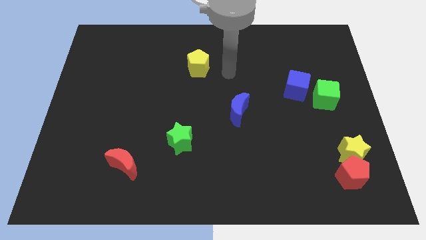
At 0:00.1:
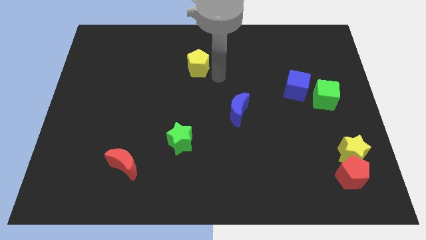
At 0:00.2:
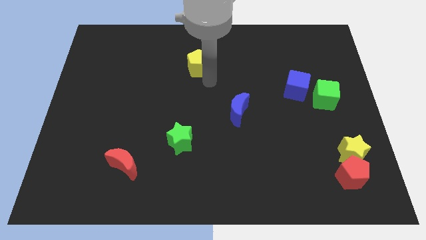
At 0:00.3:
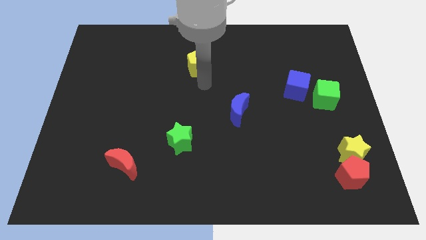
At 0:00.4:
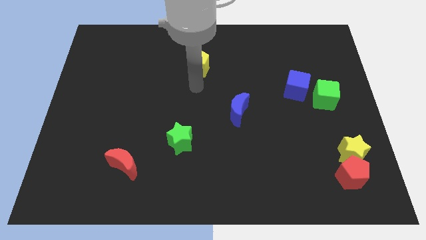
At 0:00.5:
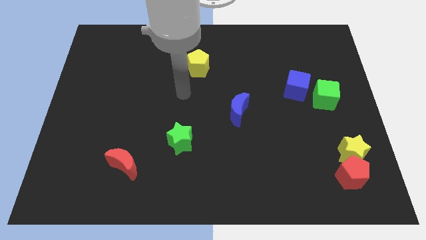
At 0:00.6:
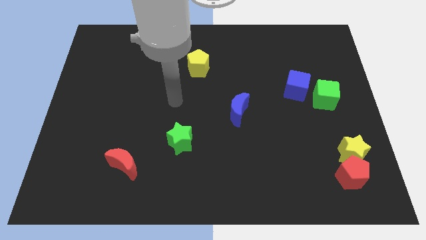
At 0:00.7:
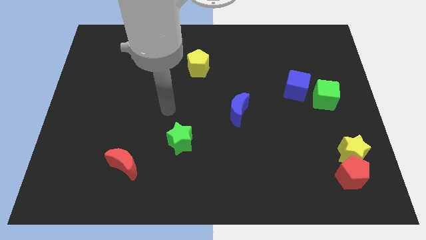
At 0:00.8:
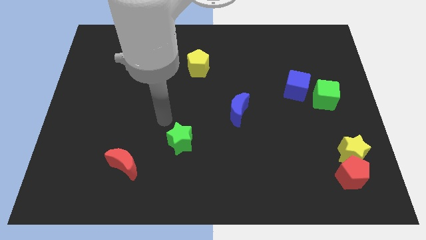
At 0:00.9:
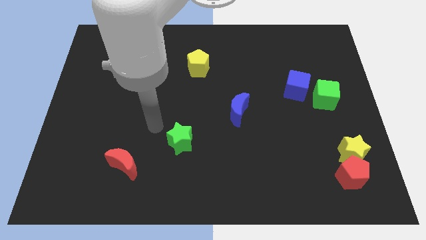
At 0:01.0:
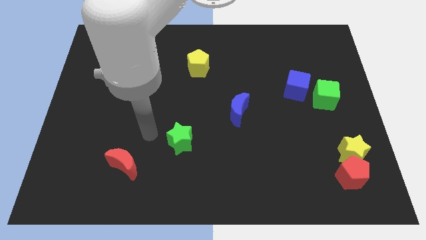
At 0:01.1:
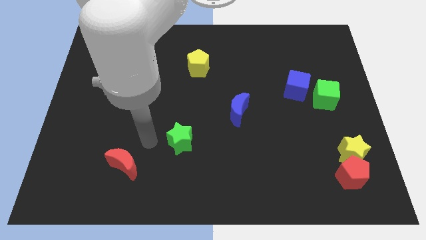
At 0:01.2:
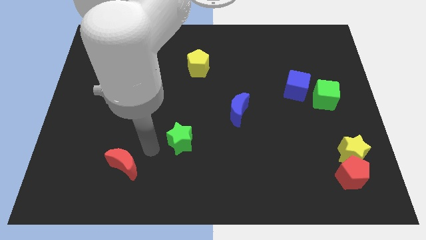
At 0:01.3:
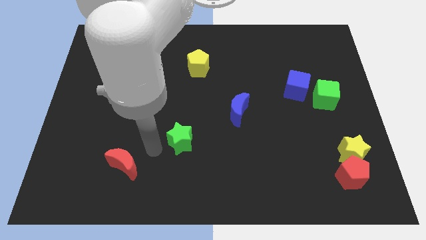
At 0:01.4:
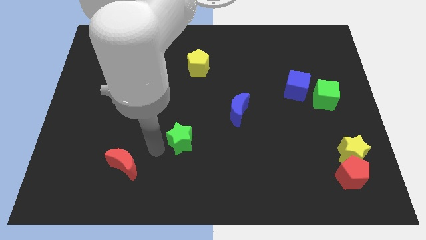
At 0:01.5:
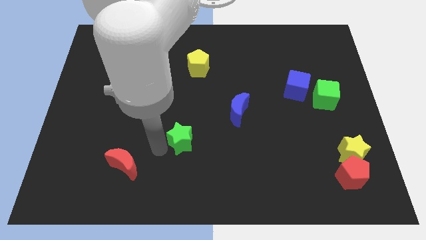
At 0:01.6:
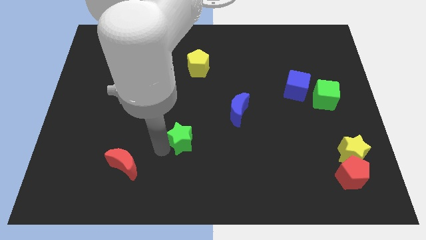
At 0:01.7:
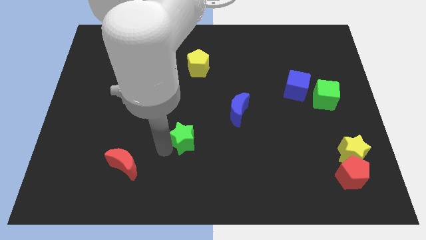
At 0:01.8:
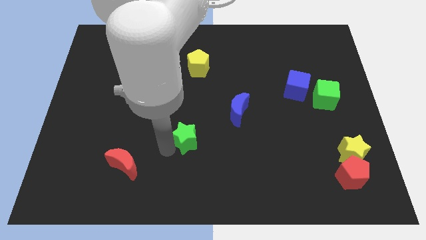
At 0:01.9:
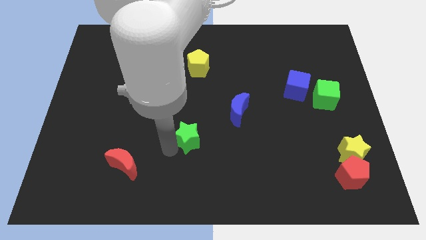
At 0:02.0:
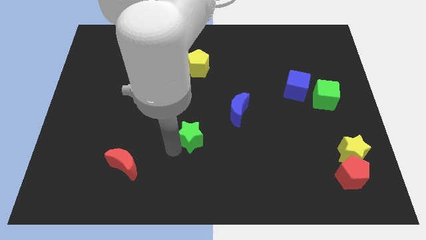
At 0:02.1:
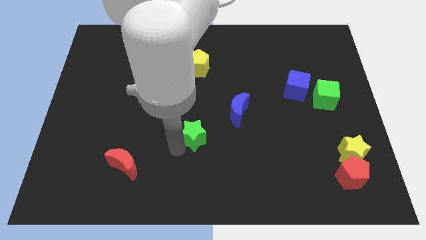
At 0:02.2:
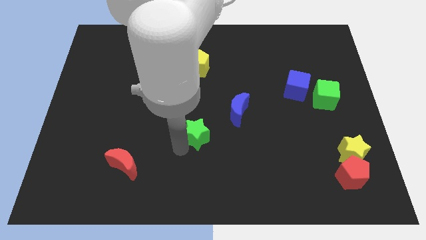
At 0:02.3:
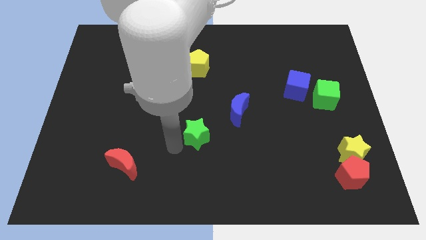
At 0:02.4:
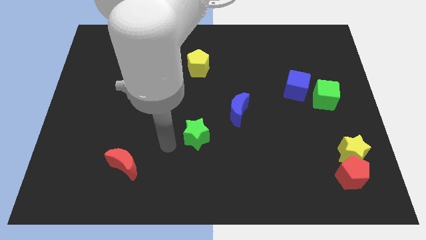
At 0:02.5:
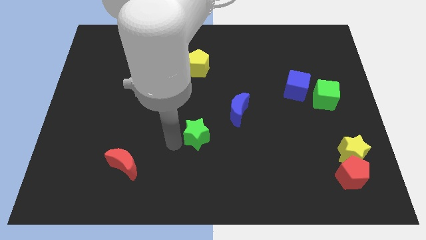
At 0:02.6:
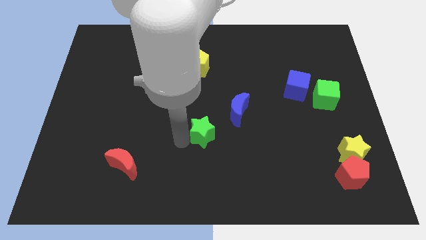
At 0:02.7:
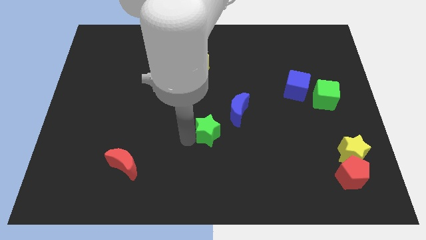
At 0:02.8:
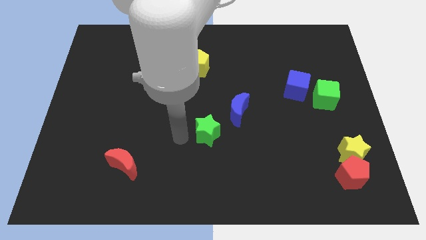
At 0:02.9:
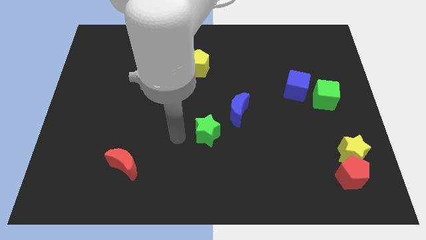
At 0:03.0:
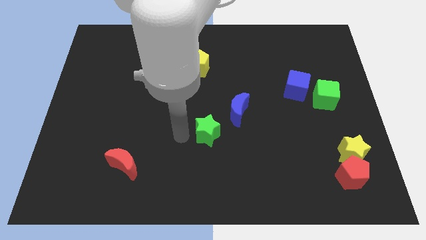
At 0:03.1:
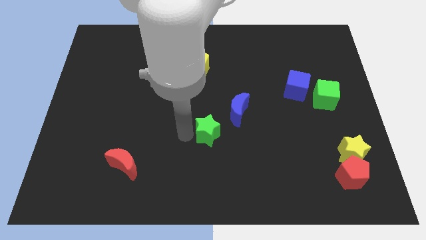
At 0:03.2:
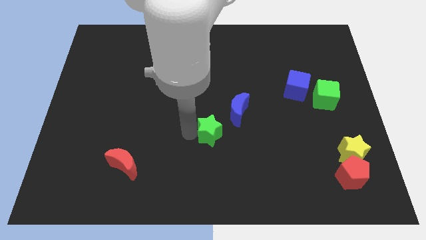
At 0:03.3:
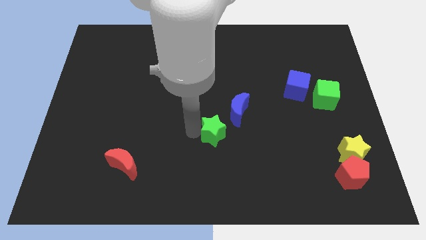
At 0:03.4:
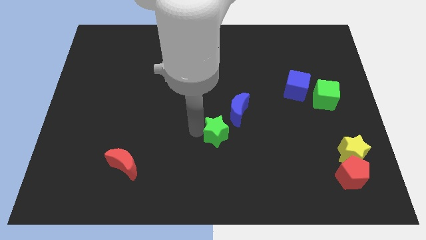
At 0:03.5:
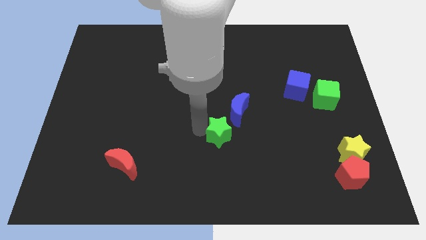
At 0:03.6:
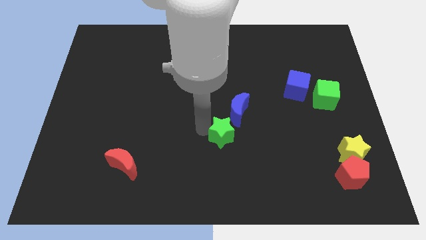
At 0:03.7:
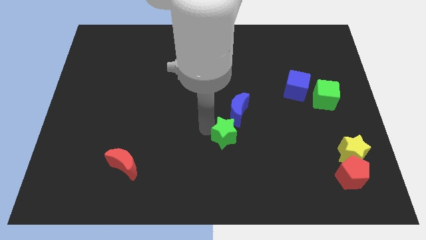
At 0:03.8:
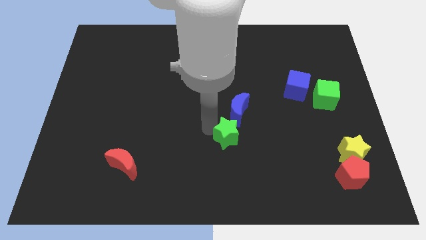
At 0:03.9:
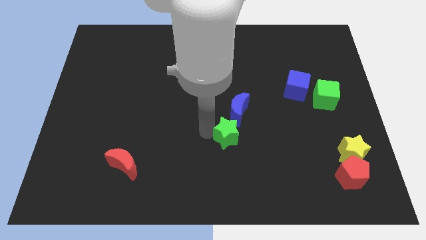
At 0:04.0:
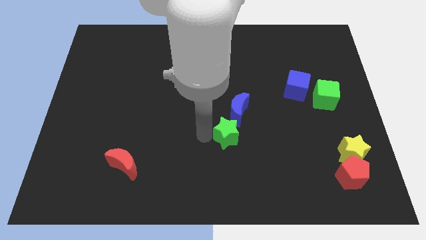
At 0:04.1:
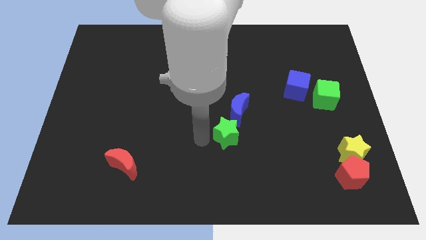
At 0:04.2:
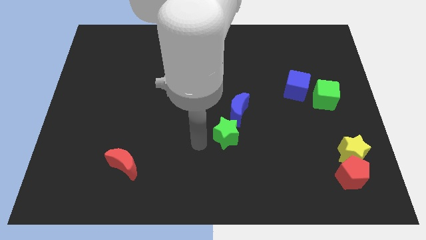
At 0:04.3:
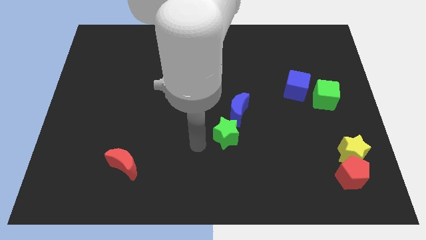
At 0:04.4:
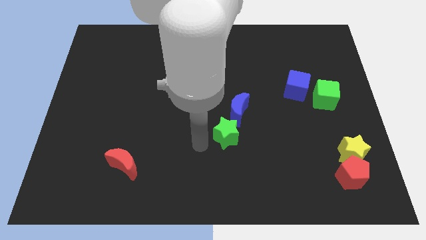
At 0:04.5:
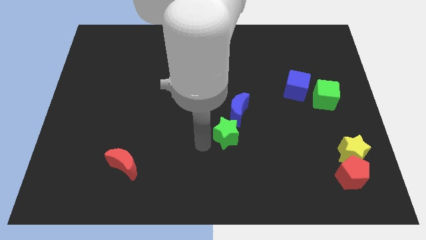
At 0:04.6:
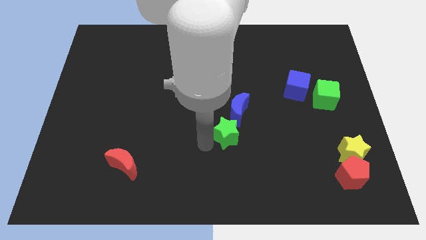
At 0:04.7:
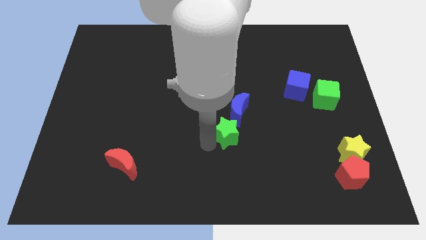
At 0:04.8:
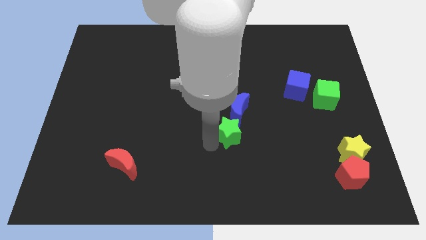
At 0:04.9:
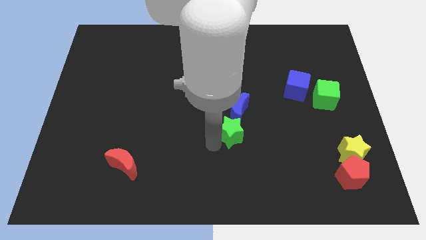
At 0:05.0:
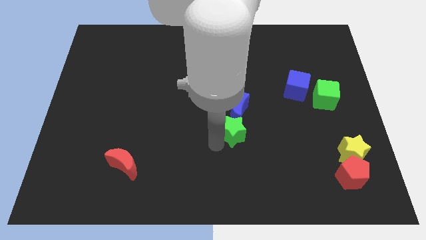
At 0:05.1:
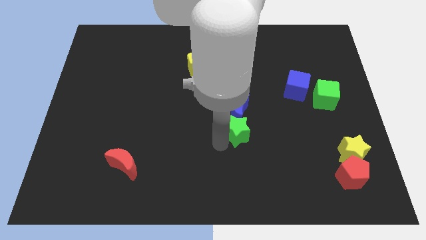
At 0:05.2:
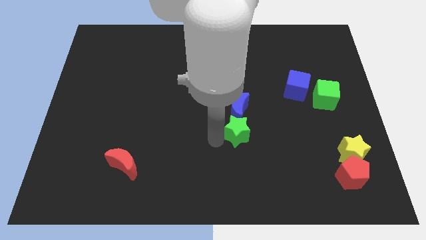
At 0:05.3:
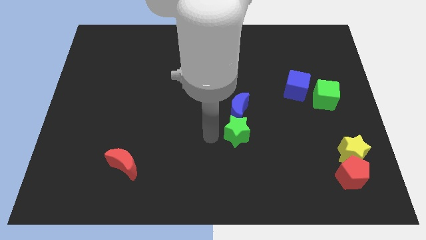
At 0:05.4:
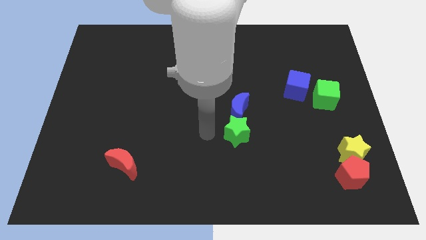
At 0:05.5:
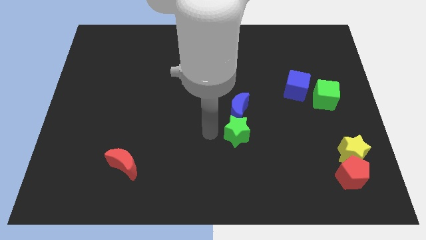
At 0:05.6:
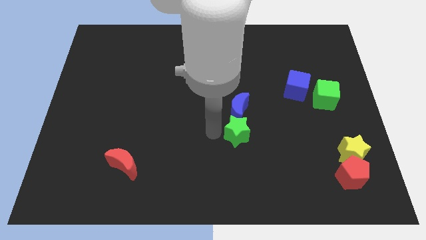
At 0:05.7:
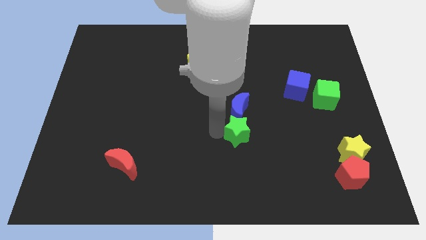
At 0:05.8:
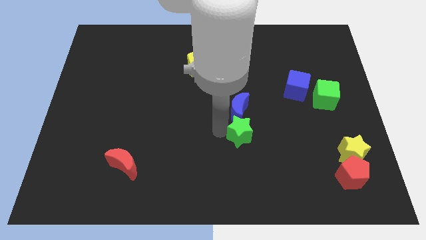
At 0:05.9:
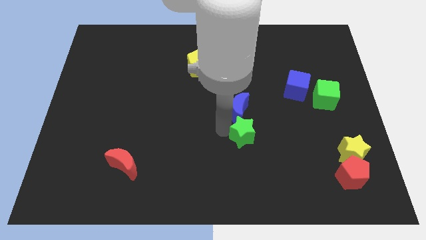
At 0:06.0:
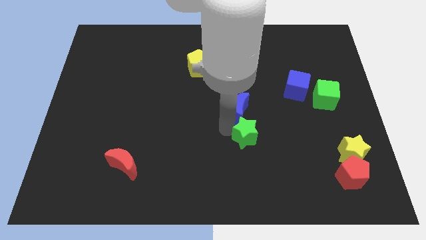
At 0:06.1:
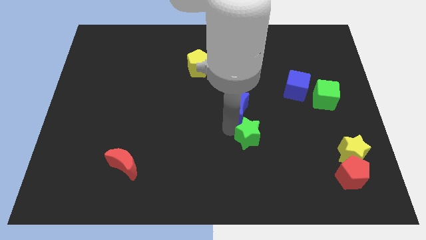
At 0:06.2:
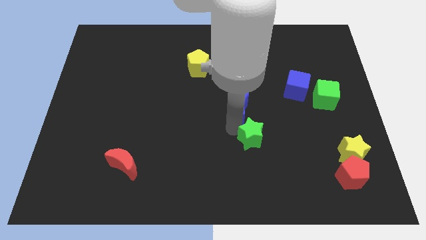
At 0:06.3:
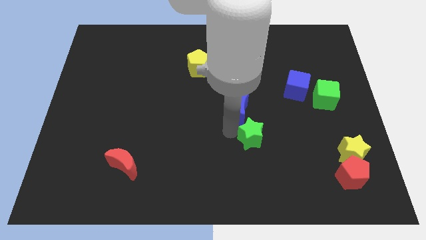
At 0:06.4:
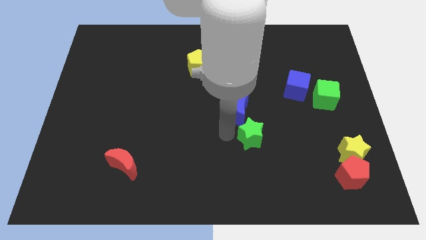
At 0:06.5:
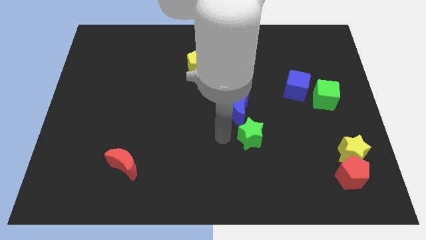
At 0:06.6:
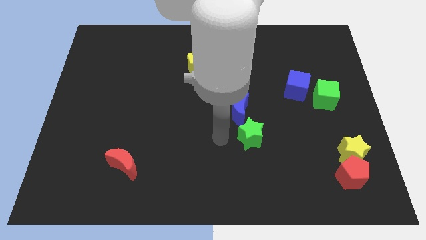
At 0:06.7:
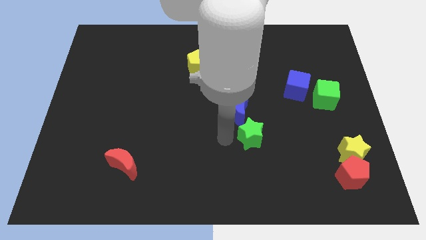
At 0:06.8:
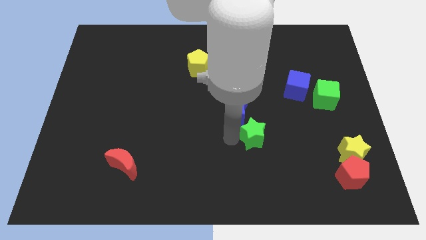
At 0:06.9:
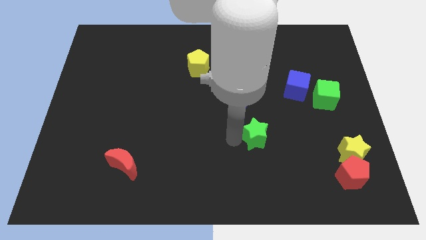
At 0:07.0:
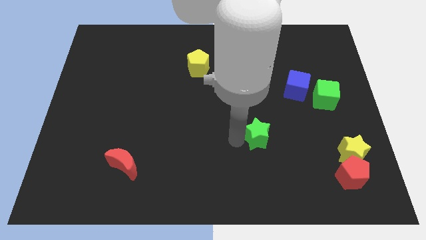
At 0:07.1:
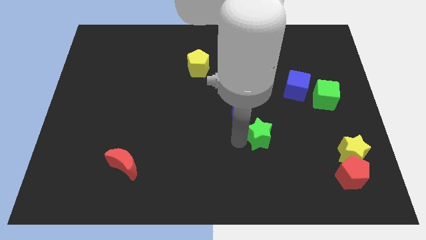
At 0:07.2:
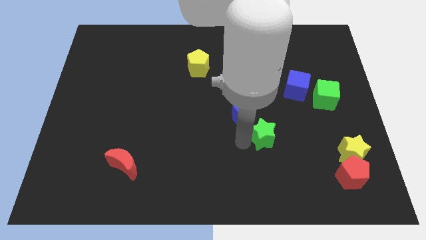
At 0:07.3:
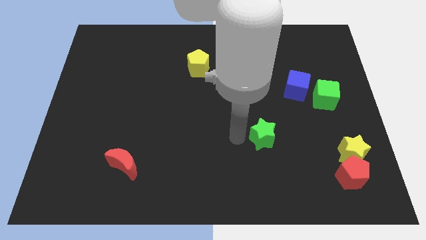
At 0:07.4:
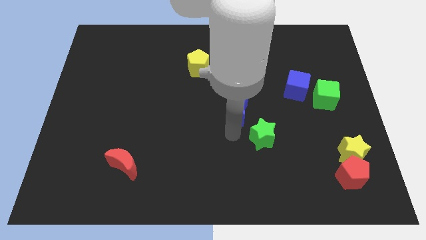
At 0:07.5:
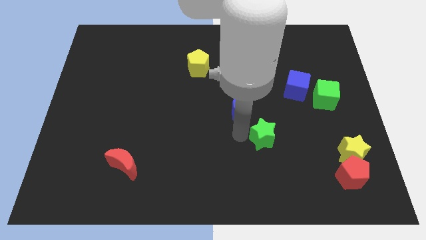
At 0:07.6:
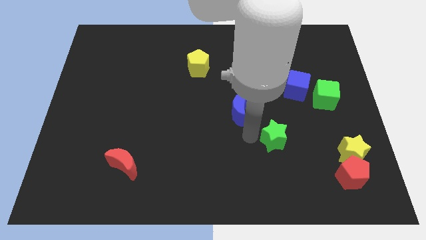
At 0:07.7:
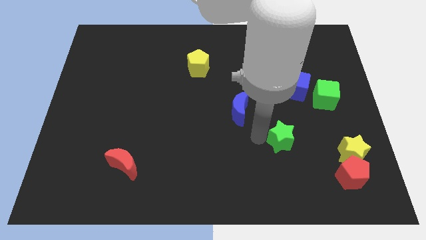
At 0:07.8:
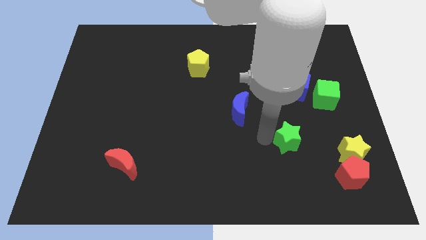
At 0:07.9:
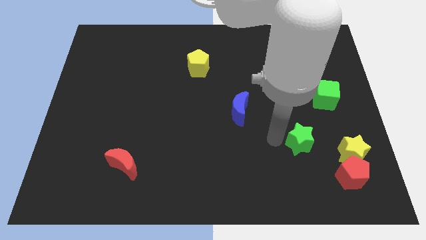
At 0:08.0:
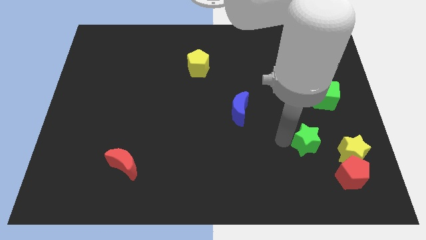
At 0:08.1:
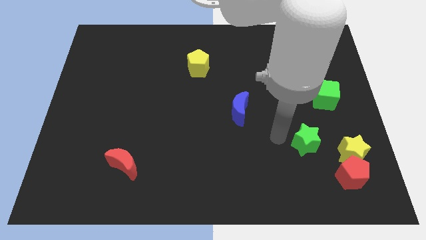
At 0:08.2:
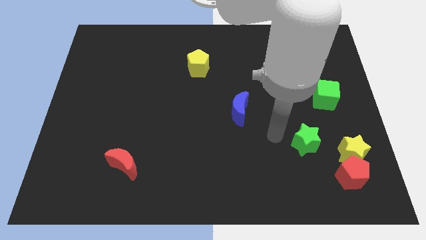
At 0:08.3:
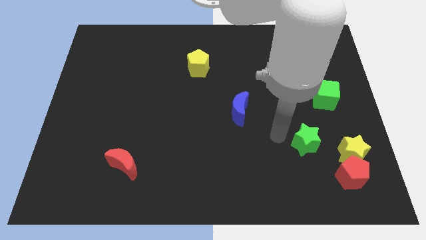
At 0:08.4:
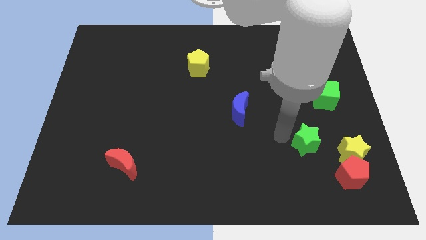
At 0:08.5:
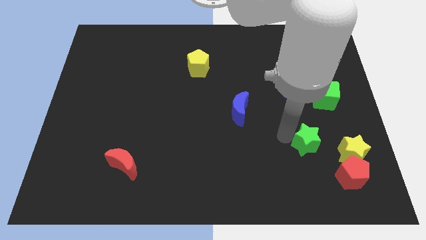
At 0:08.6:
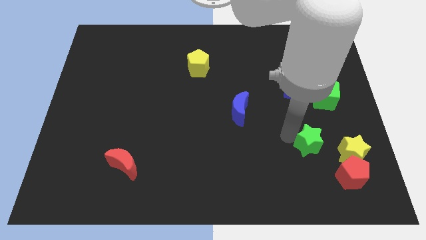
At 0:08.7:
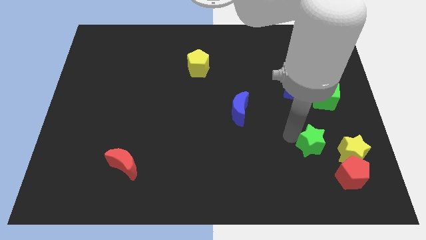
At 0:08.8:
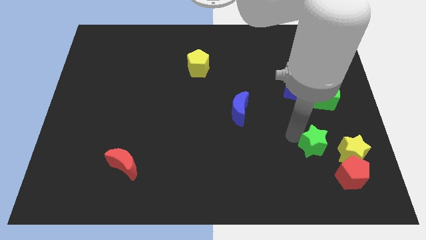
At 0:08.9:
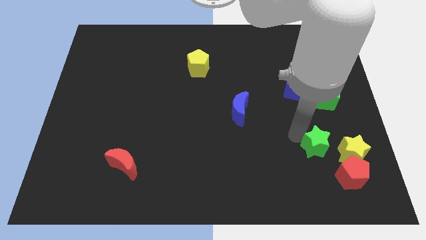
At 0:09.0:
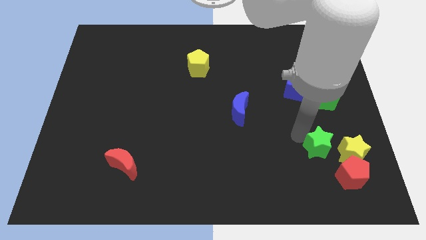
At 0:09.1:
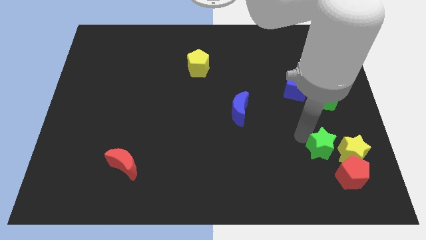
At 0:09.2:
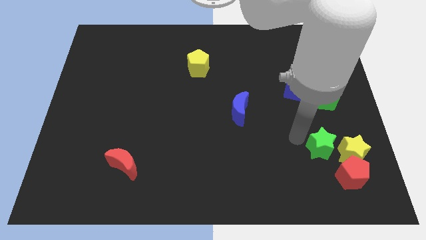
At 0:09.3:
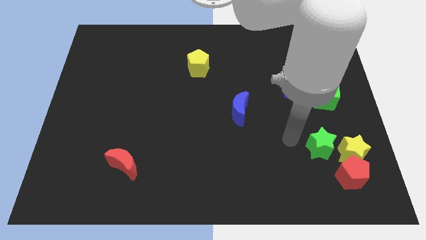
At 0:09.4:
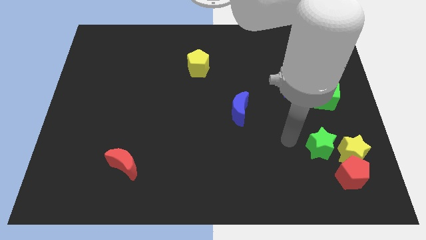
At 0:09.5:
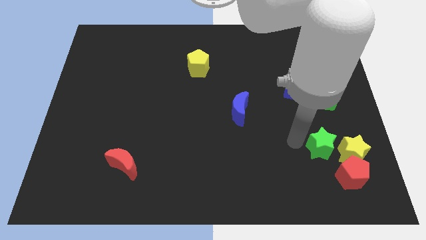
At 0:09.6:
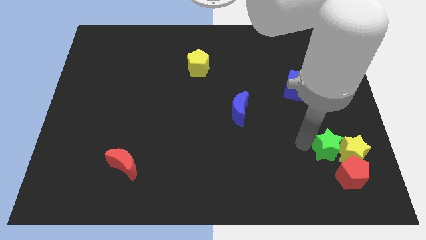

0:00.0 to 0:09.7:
push the green star next to the yellow star
